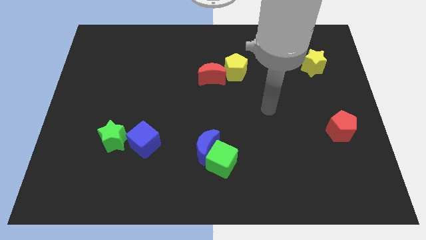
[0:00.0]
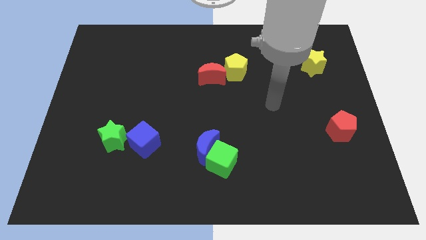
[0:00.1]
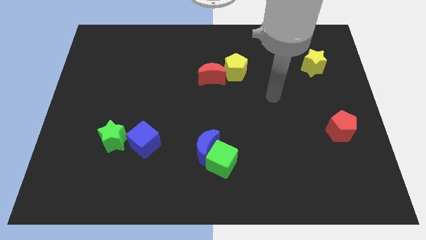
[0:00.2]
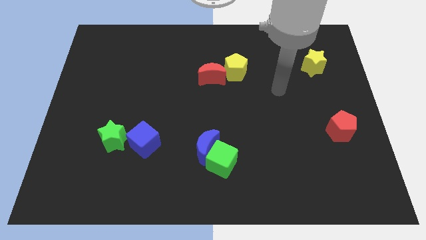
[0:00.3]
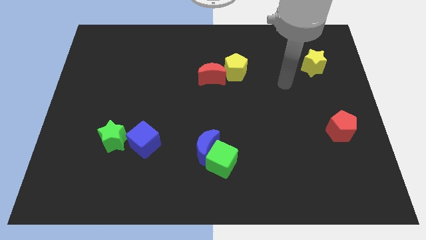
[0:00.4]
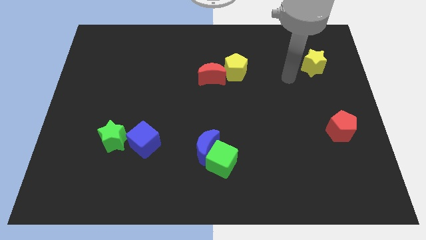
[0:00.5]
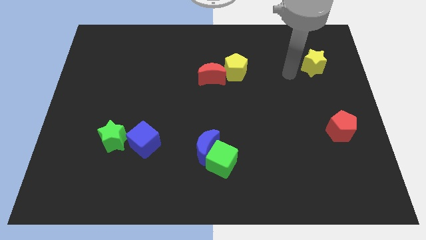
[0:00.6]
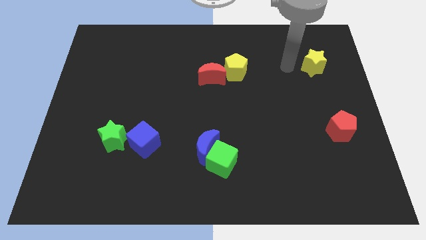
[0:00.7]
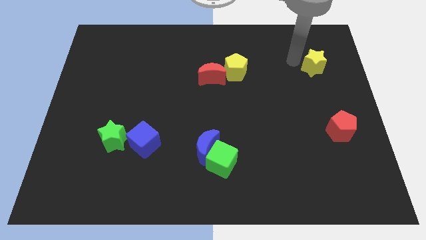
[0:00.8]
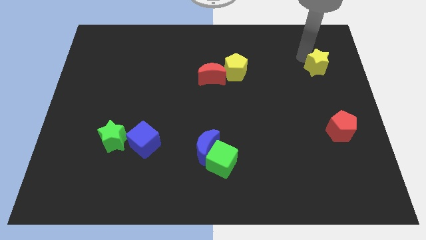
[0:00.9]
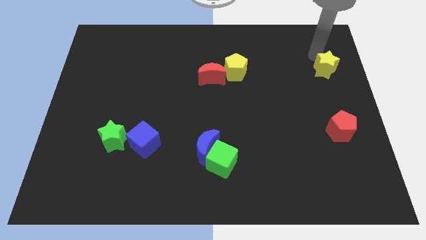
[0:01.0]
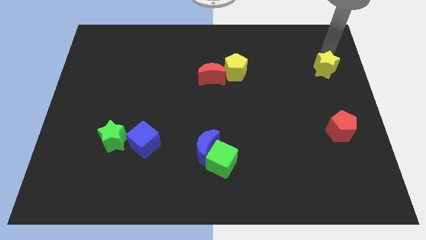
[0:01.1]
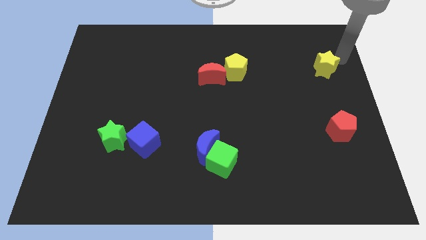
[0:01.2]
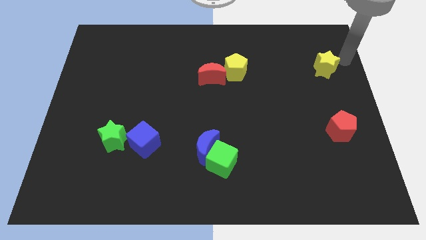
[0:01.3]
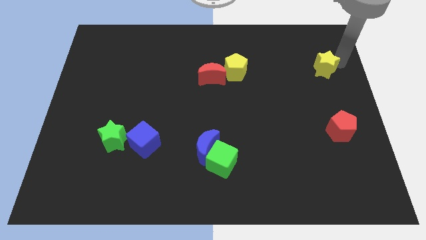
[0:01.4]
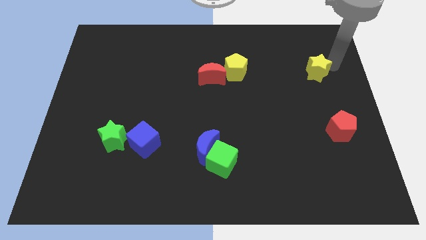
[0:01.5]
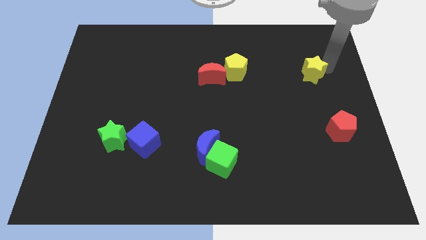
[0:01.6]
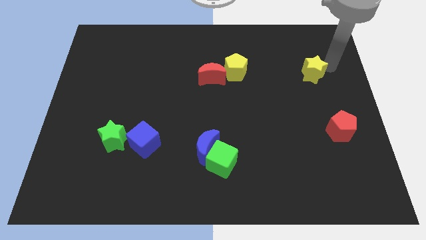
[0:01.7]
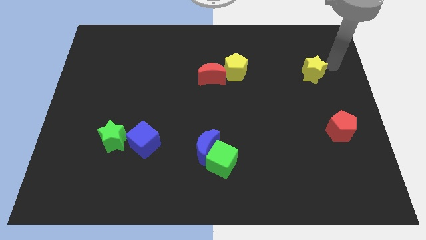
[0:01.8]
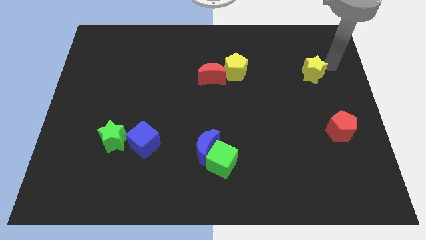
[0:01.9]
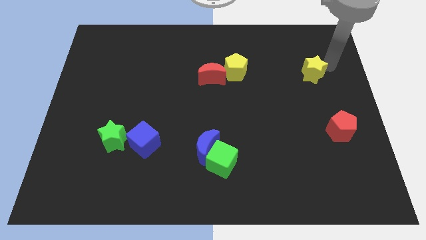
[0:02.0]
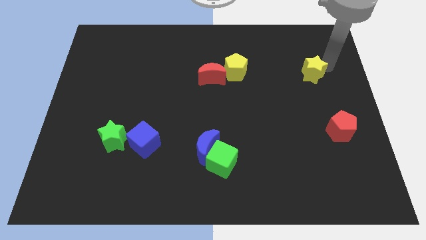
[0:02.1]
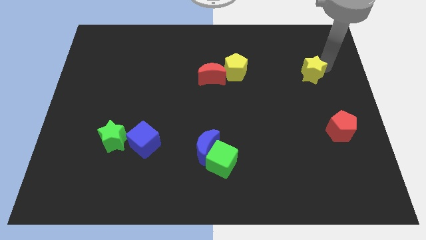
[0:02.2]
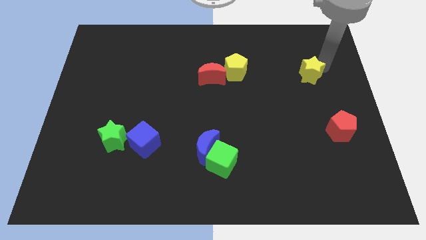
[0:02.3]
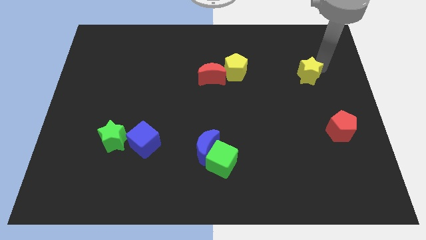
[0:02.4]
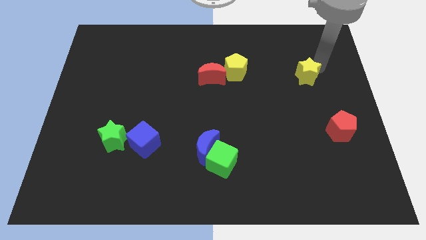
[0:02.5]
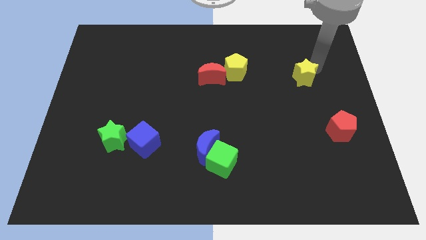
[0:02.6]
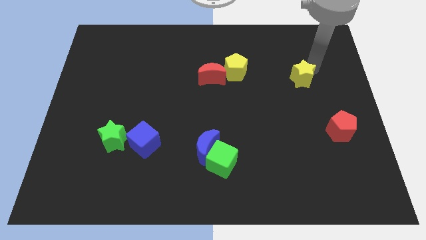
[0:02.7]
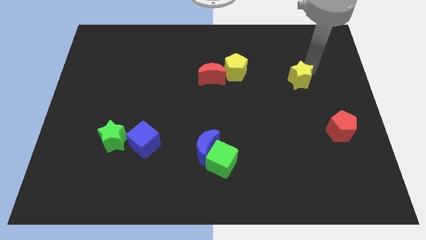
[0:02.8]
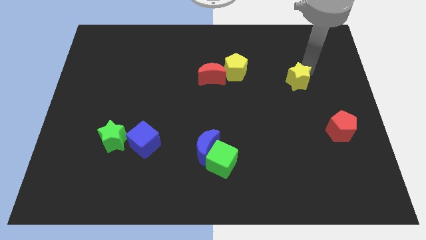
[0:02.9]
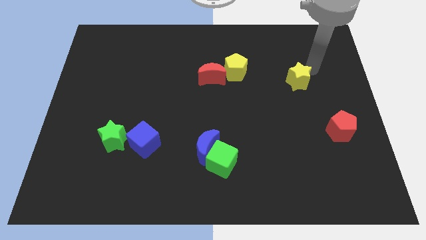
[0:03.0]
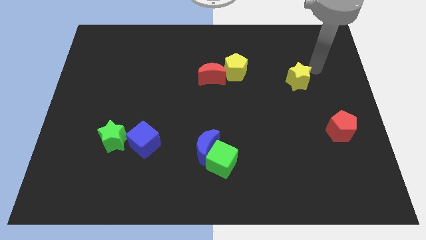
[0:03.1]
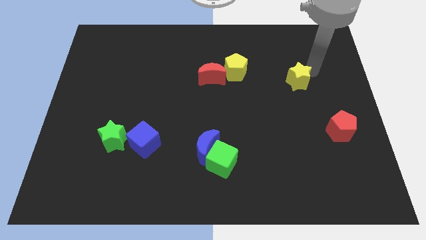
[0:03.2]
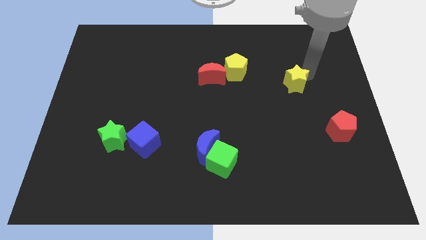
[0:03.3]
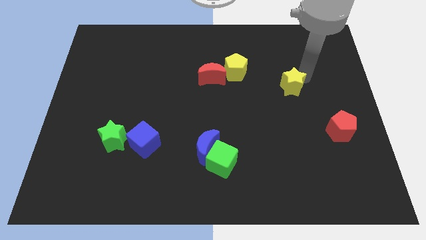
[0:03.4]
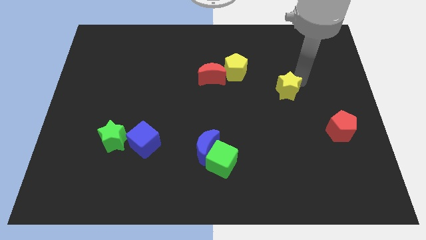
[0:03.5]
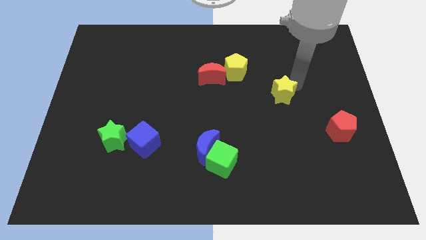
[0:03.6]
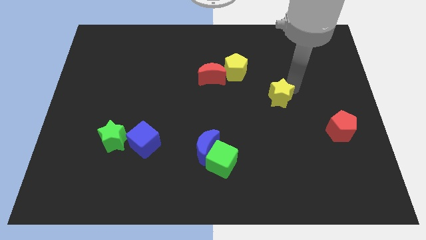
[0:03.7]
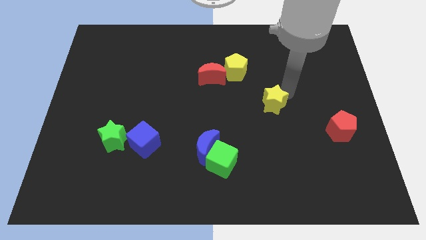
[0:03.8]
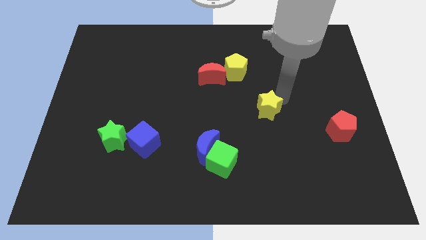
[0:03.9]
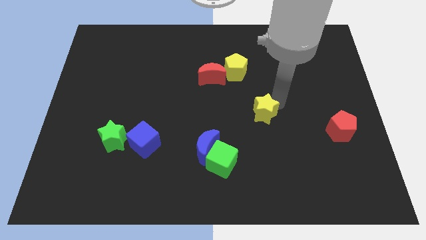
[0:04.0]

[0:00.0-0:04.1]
move the yellow star down and to the left

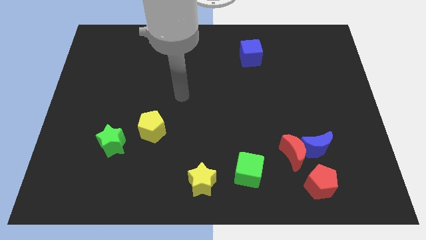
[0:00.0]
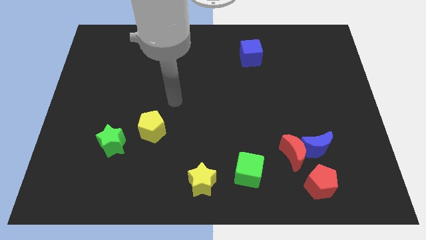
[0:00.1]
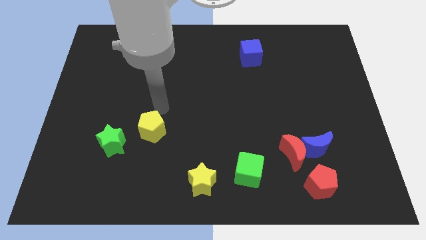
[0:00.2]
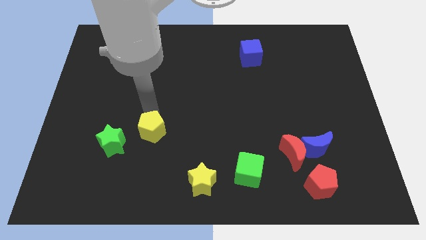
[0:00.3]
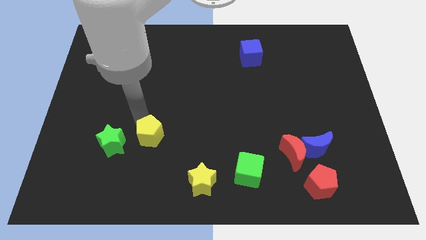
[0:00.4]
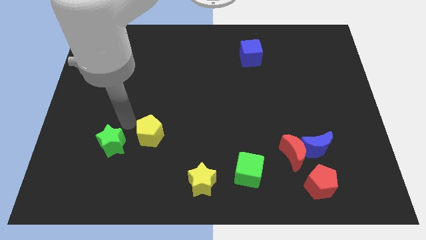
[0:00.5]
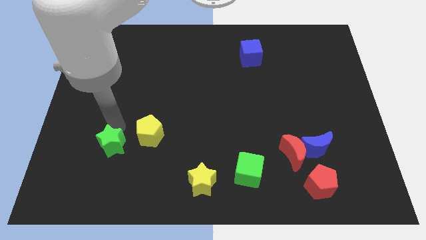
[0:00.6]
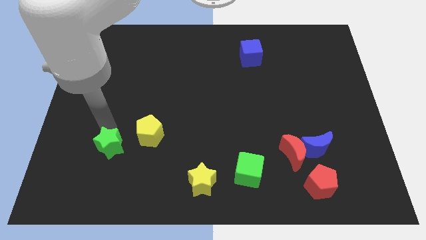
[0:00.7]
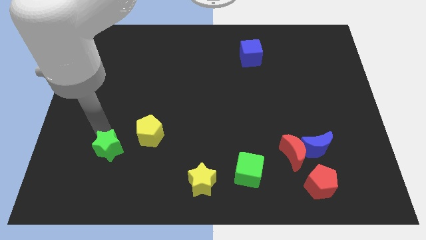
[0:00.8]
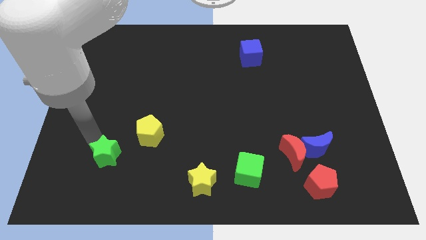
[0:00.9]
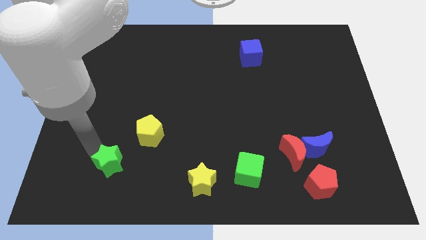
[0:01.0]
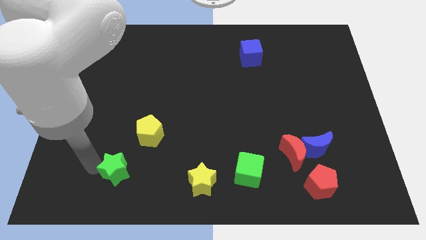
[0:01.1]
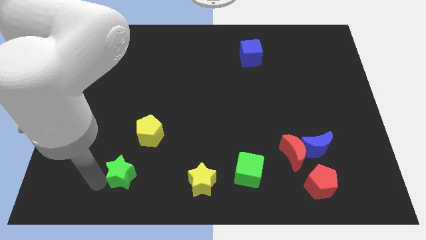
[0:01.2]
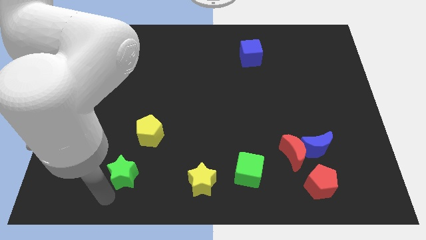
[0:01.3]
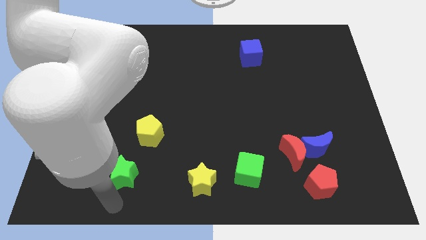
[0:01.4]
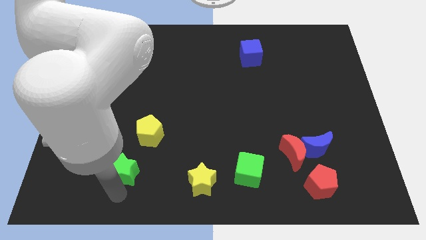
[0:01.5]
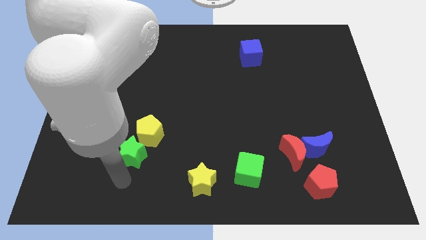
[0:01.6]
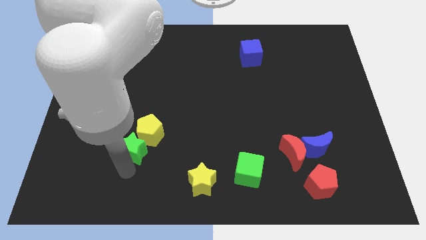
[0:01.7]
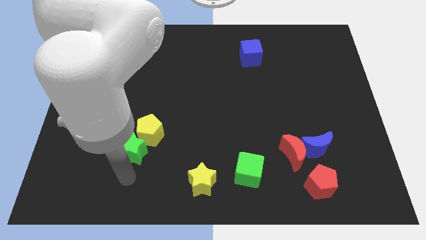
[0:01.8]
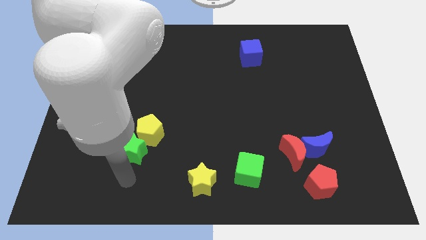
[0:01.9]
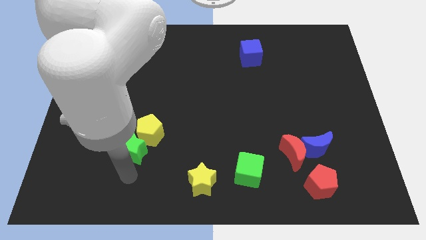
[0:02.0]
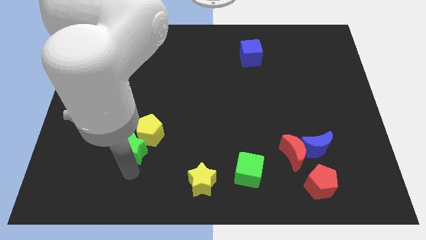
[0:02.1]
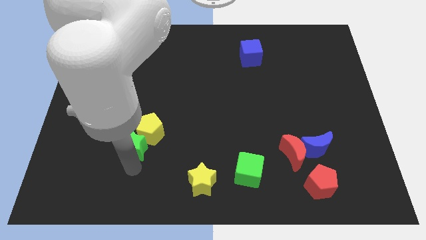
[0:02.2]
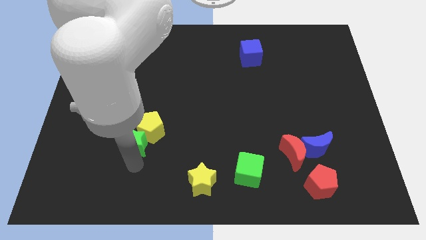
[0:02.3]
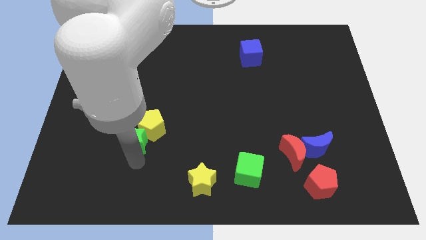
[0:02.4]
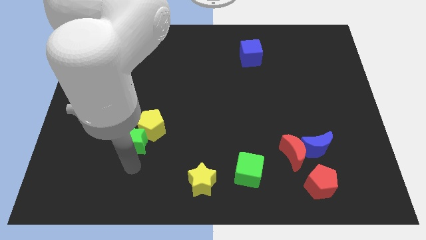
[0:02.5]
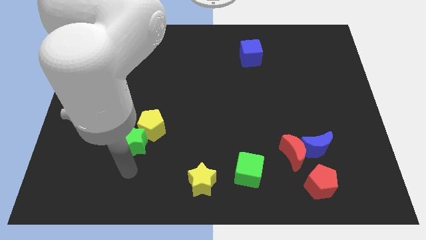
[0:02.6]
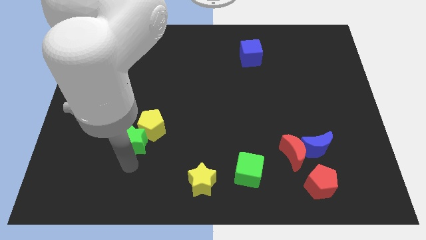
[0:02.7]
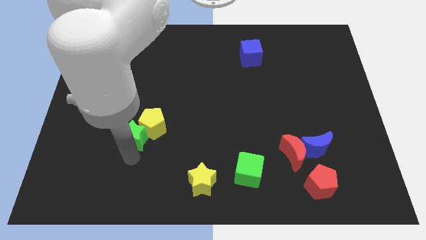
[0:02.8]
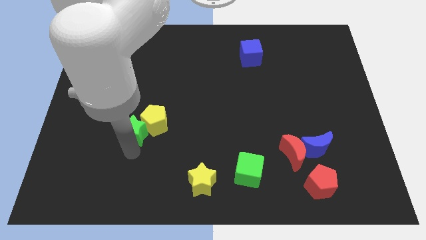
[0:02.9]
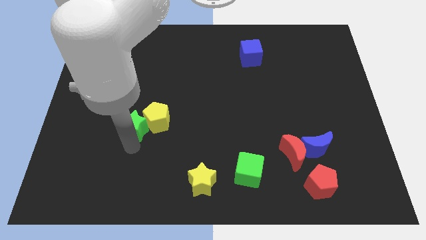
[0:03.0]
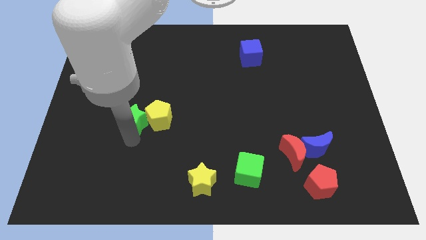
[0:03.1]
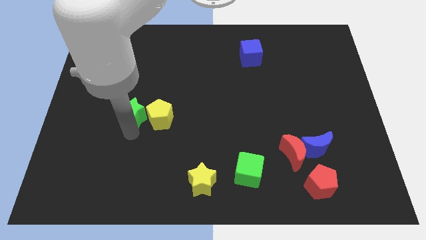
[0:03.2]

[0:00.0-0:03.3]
push the green star slightly up and right diagonally

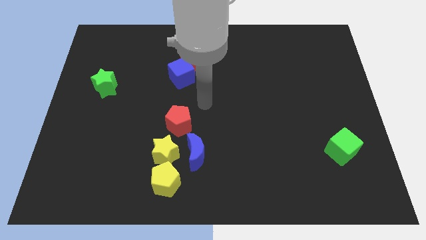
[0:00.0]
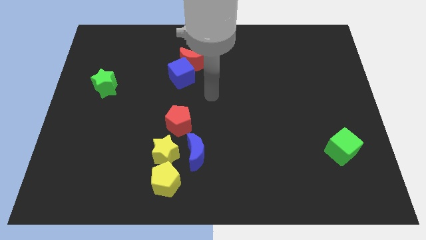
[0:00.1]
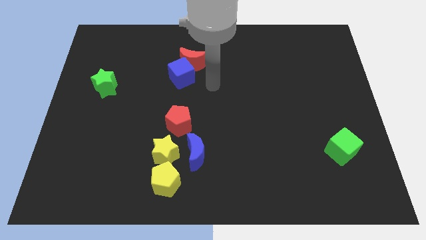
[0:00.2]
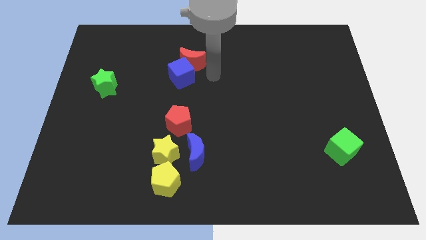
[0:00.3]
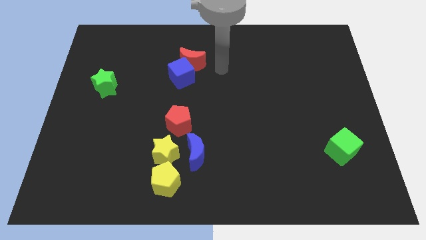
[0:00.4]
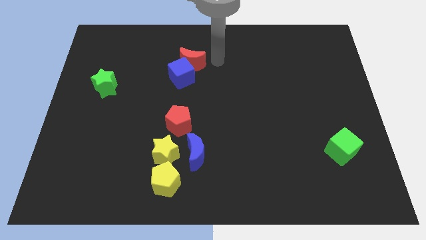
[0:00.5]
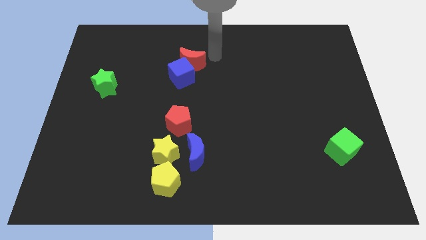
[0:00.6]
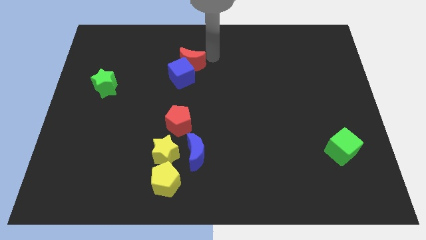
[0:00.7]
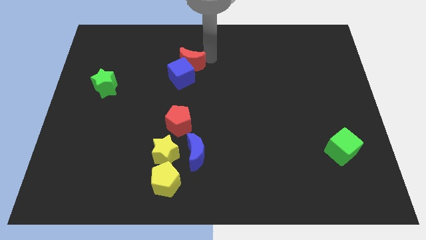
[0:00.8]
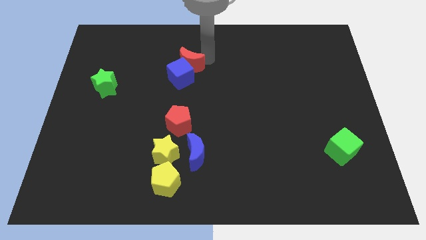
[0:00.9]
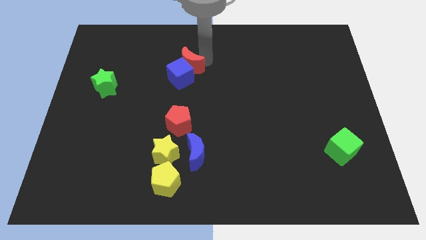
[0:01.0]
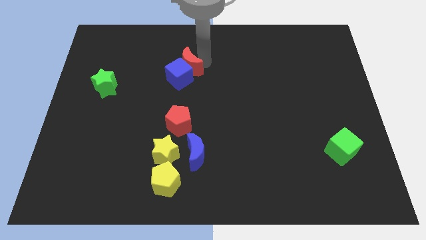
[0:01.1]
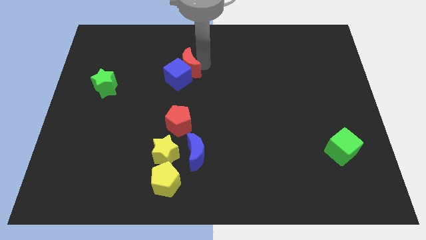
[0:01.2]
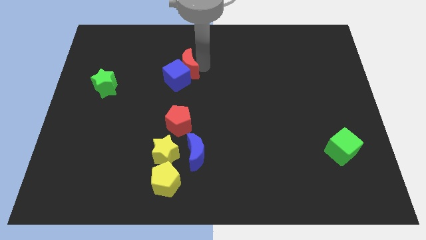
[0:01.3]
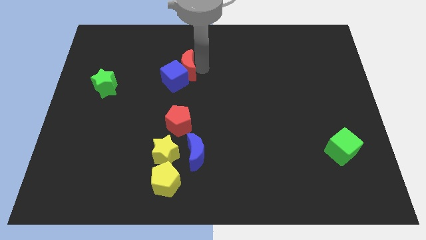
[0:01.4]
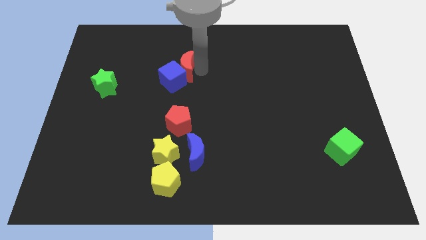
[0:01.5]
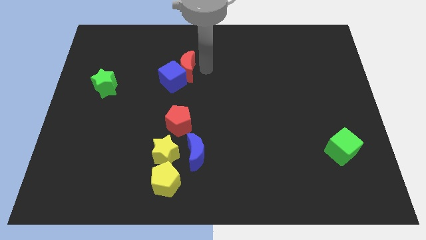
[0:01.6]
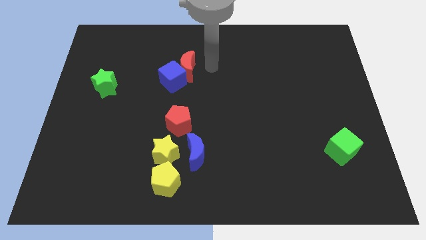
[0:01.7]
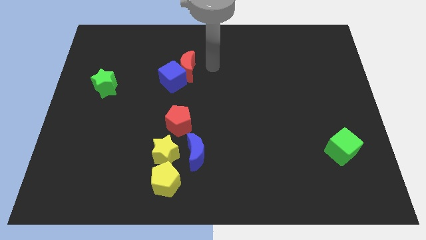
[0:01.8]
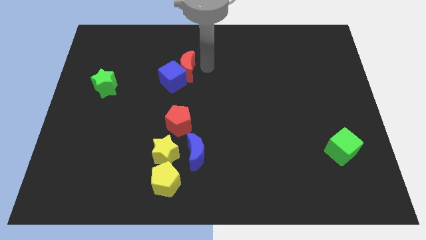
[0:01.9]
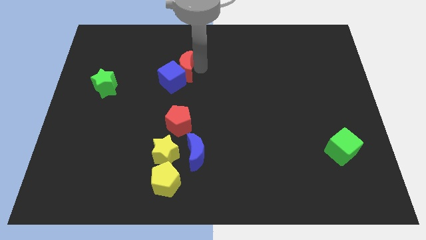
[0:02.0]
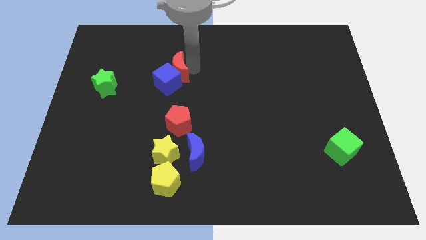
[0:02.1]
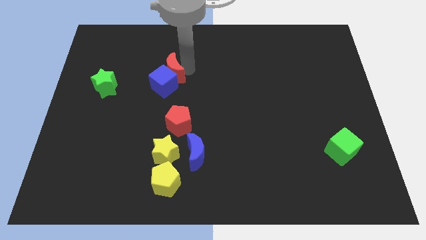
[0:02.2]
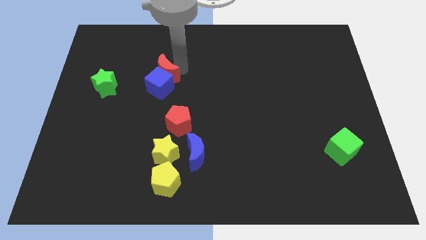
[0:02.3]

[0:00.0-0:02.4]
slightly push the red moon diagonally downwards and to the left
